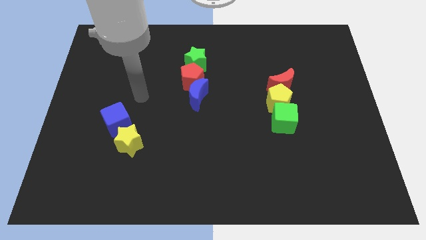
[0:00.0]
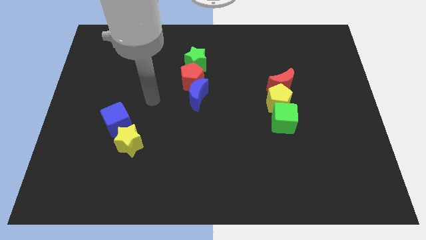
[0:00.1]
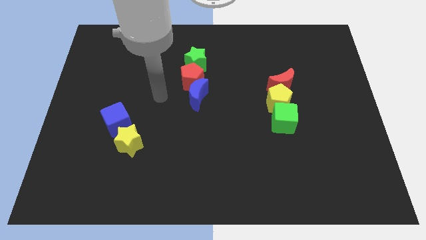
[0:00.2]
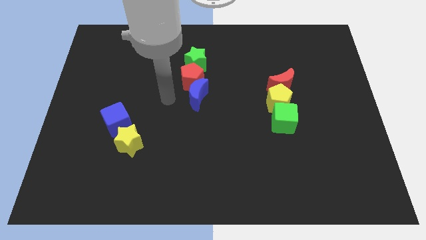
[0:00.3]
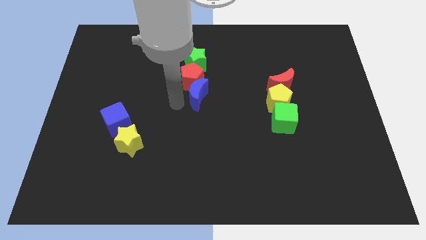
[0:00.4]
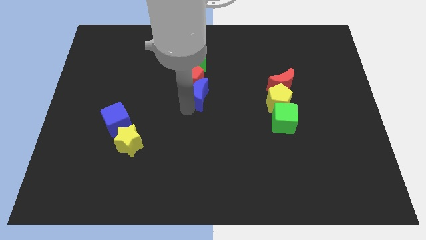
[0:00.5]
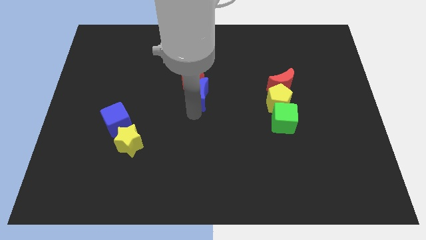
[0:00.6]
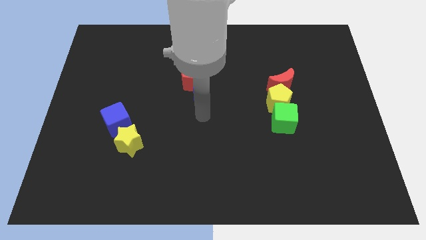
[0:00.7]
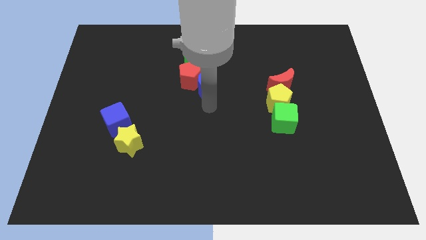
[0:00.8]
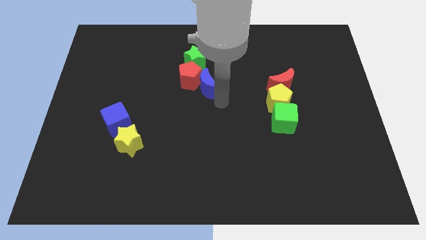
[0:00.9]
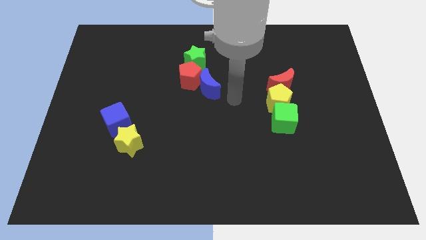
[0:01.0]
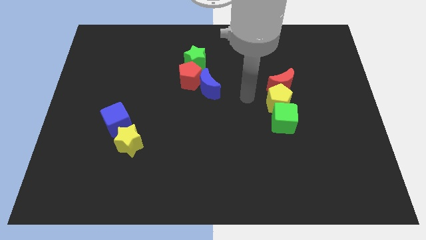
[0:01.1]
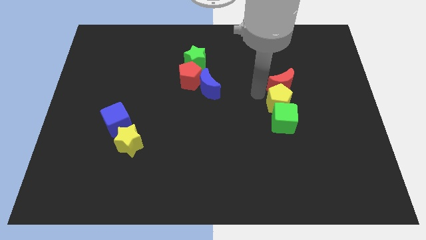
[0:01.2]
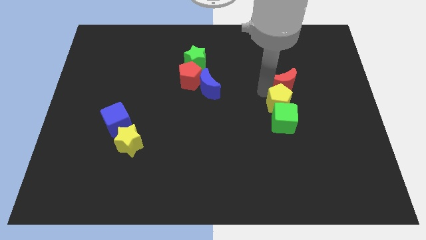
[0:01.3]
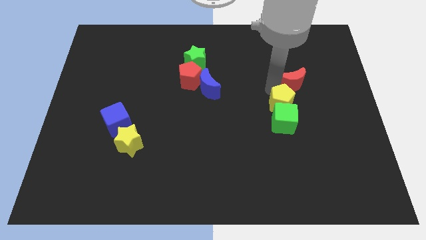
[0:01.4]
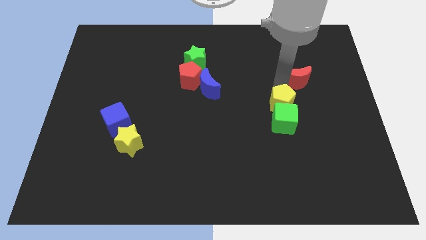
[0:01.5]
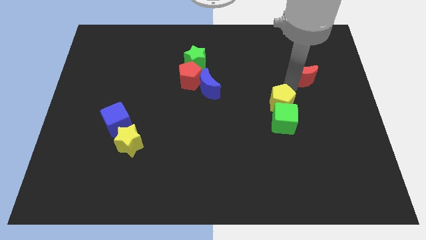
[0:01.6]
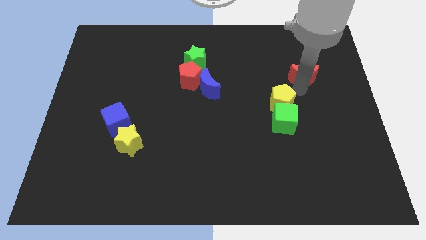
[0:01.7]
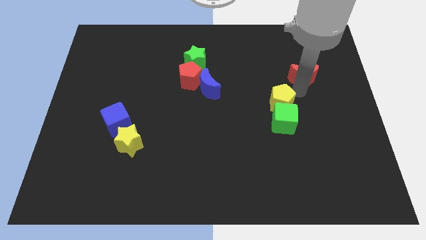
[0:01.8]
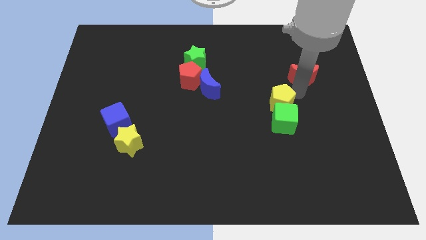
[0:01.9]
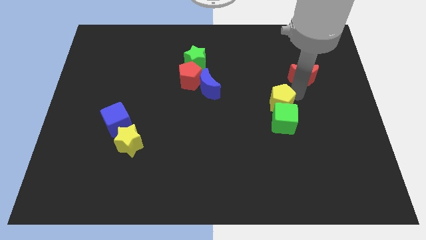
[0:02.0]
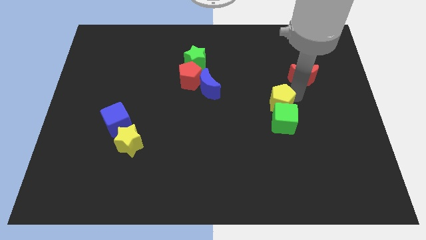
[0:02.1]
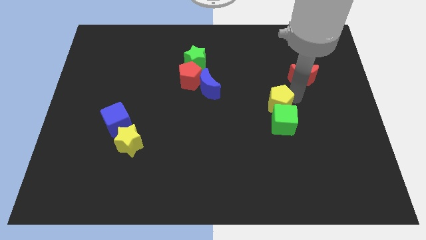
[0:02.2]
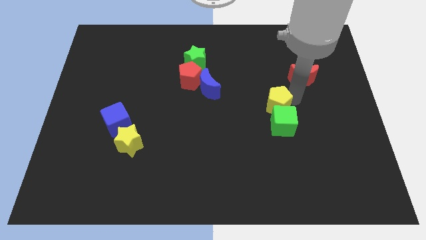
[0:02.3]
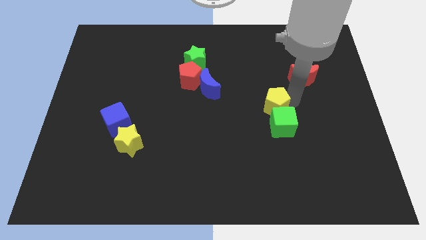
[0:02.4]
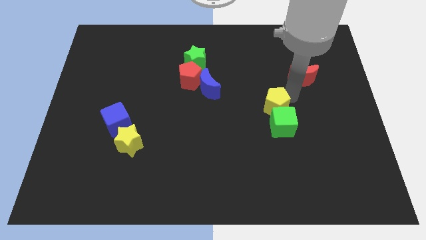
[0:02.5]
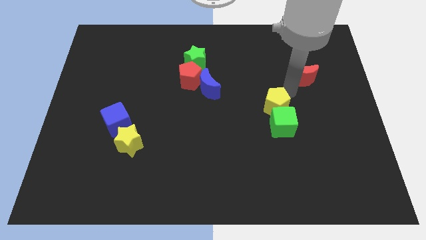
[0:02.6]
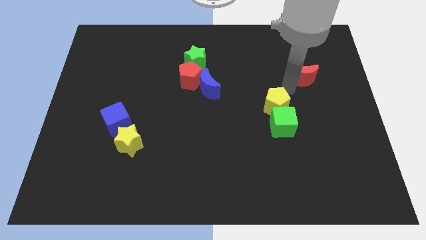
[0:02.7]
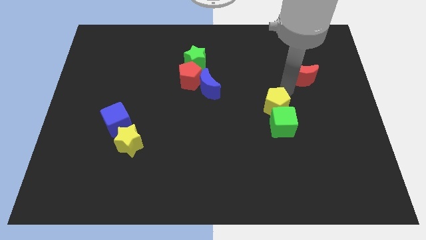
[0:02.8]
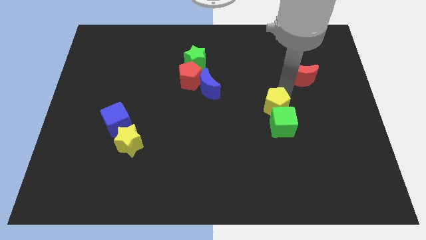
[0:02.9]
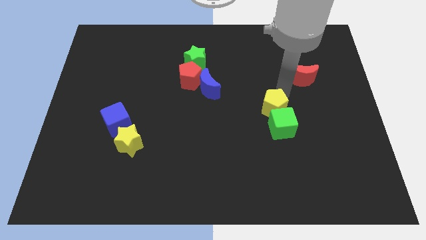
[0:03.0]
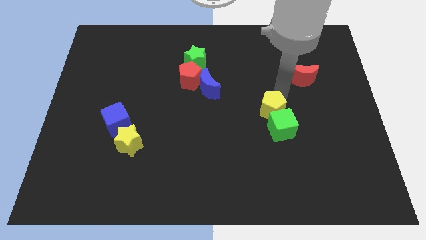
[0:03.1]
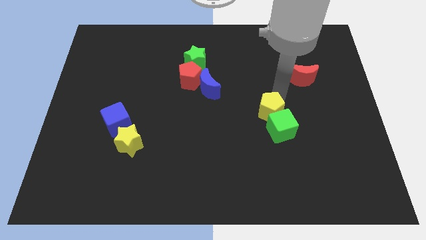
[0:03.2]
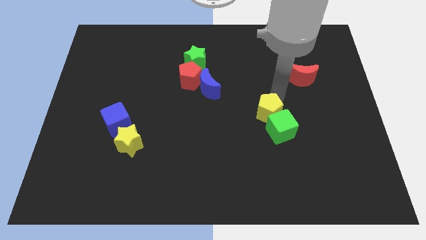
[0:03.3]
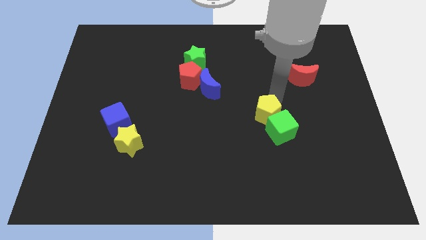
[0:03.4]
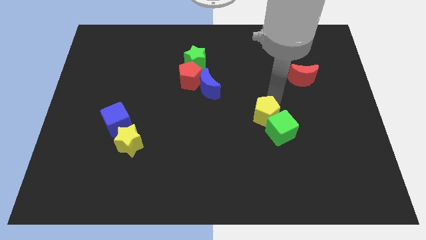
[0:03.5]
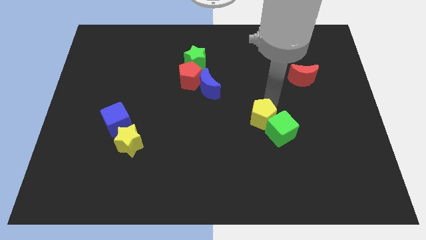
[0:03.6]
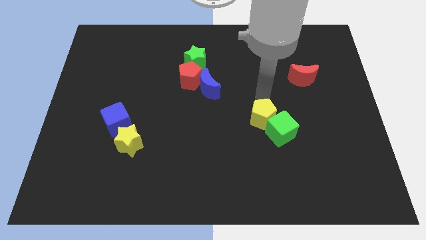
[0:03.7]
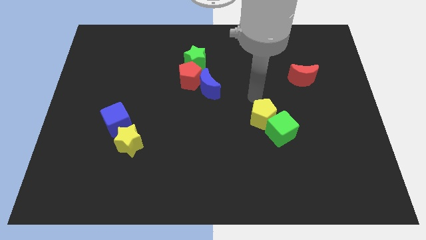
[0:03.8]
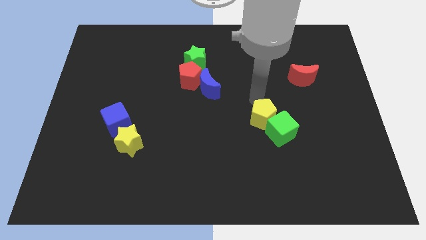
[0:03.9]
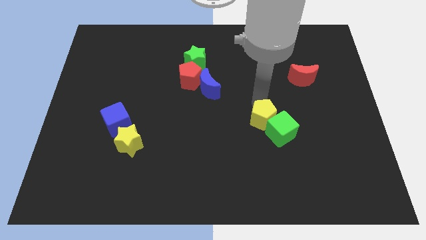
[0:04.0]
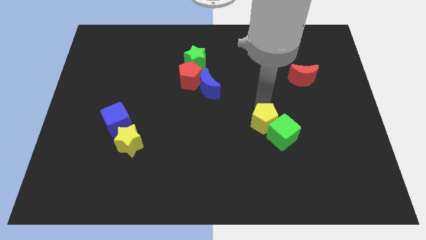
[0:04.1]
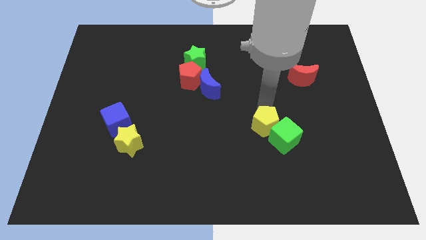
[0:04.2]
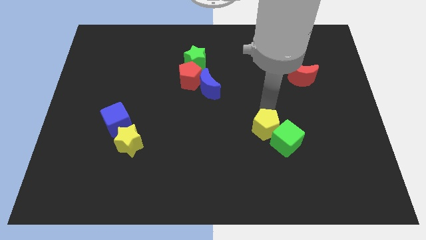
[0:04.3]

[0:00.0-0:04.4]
slightly push the yellow pentagon down

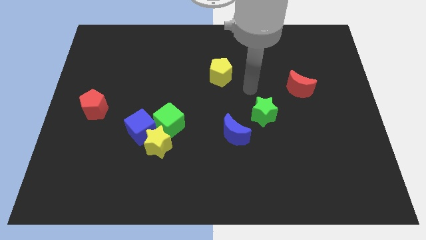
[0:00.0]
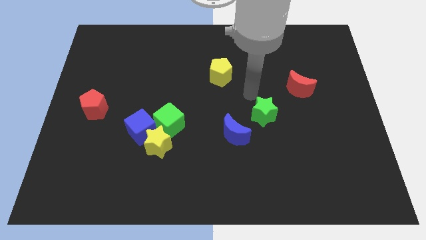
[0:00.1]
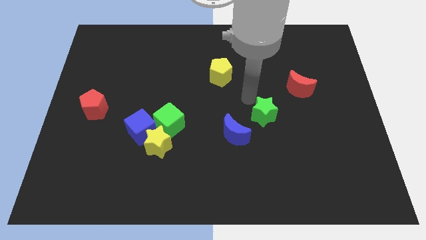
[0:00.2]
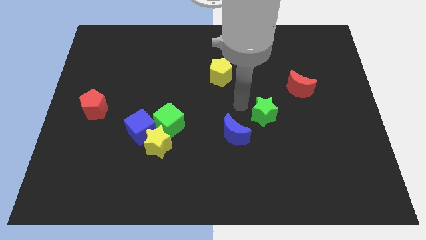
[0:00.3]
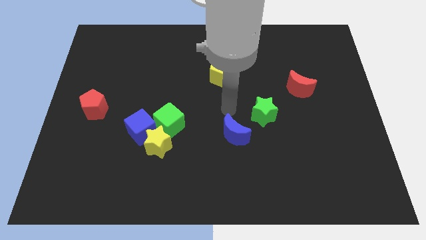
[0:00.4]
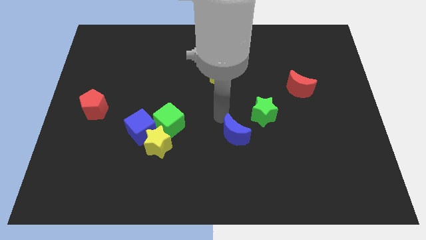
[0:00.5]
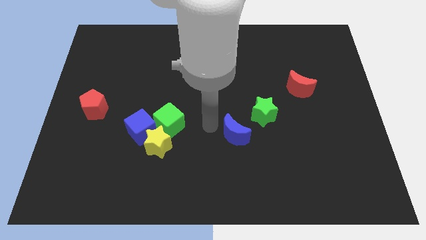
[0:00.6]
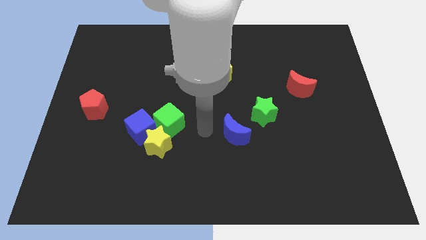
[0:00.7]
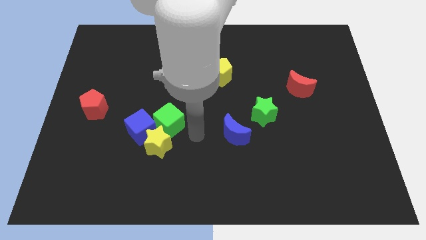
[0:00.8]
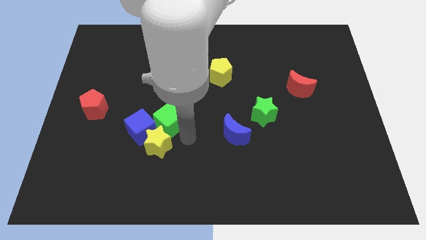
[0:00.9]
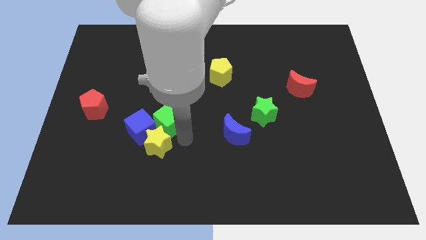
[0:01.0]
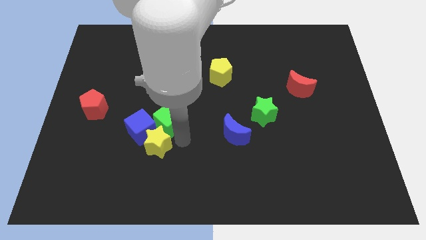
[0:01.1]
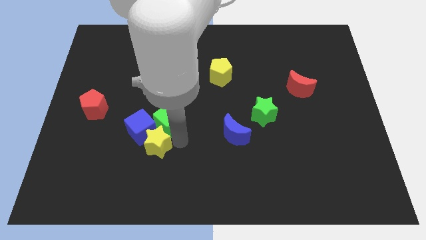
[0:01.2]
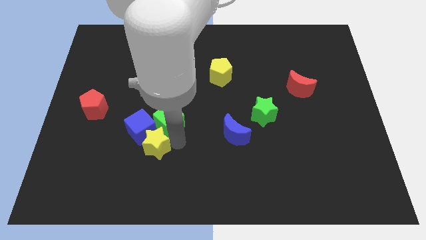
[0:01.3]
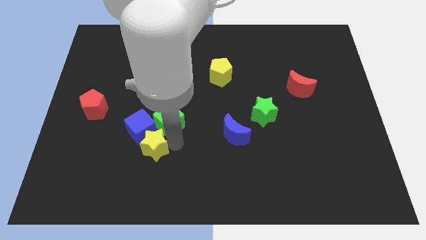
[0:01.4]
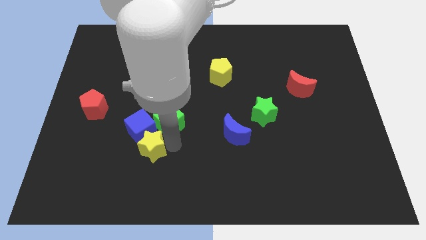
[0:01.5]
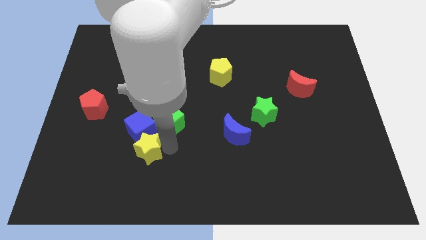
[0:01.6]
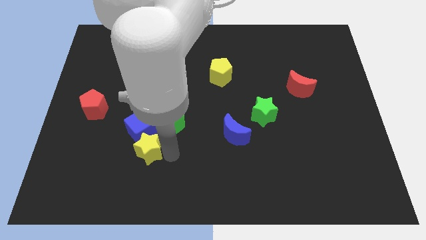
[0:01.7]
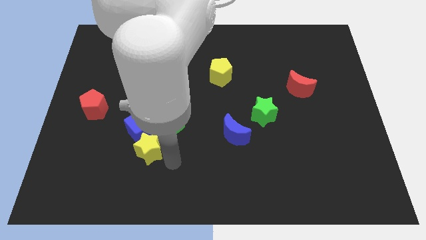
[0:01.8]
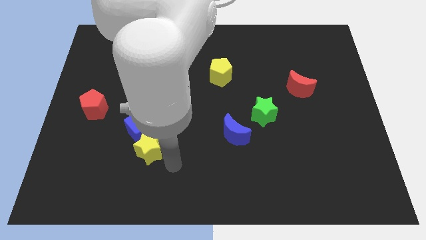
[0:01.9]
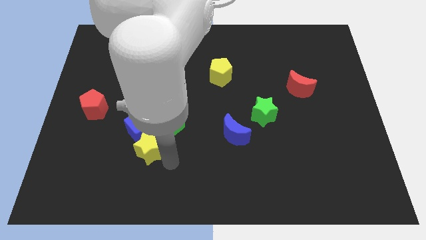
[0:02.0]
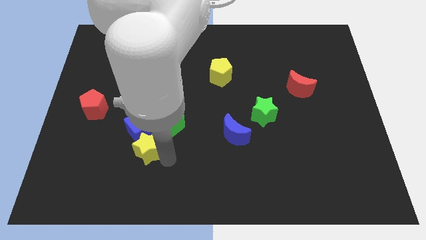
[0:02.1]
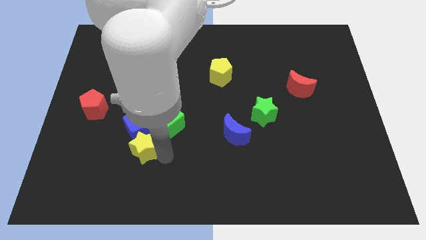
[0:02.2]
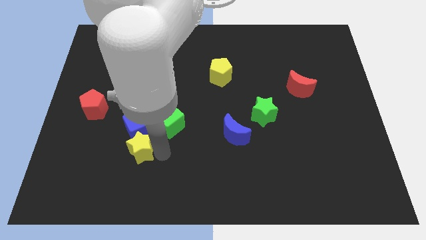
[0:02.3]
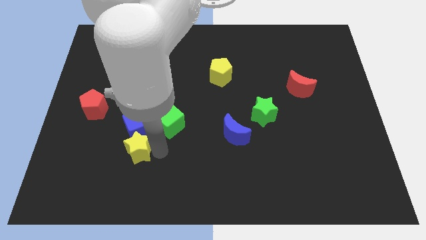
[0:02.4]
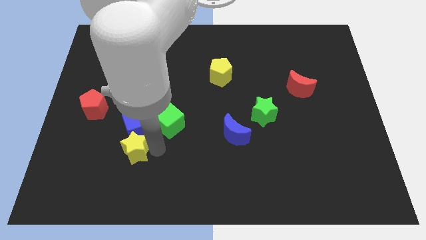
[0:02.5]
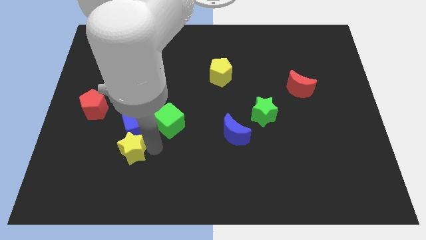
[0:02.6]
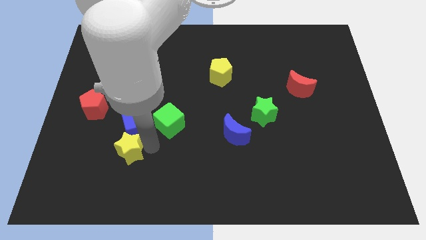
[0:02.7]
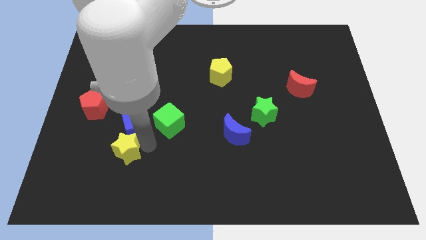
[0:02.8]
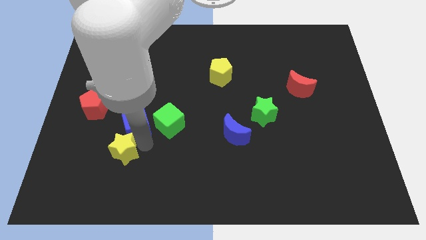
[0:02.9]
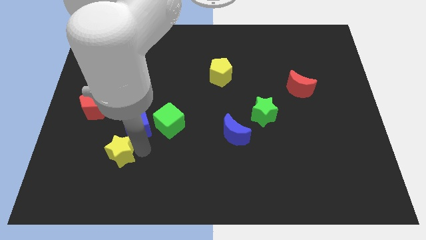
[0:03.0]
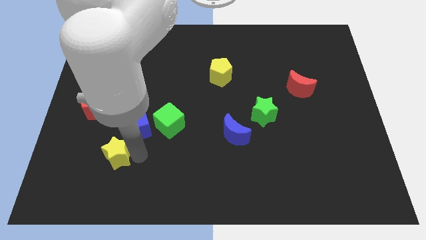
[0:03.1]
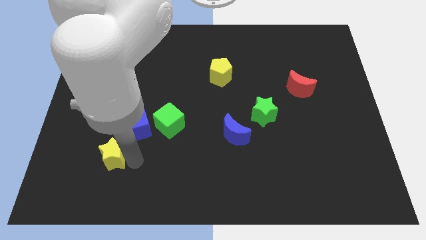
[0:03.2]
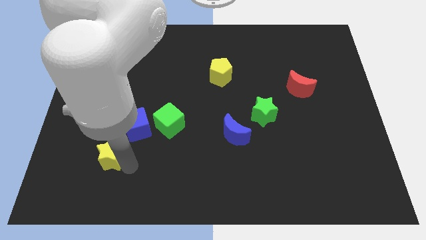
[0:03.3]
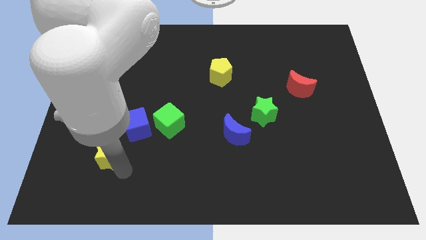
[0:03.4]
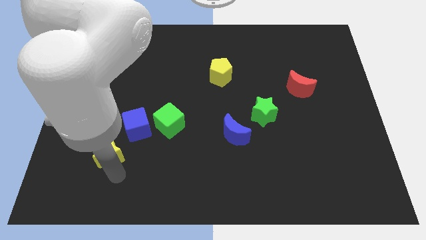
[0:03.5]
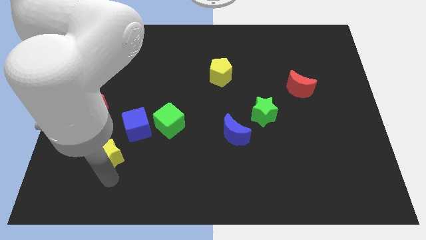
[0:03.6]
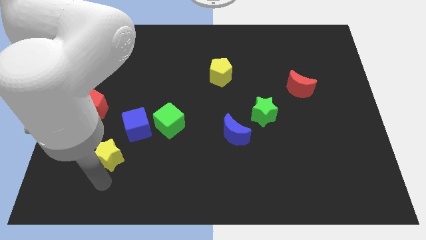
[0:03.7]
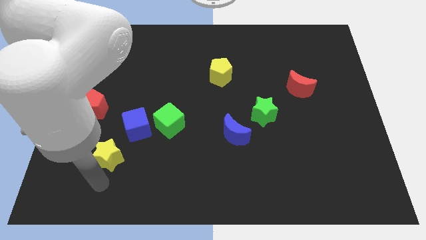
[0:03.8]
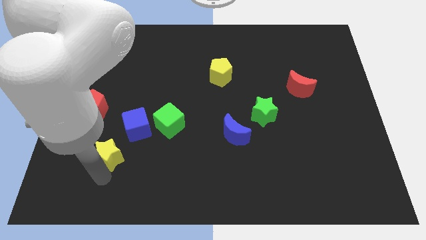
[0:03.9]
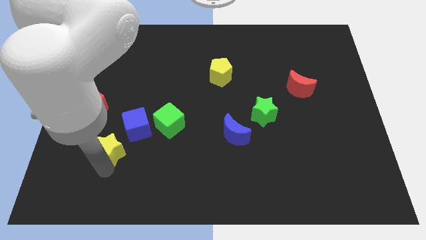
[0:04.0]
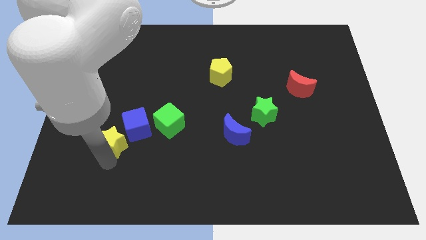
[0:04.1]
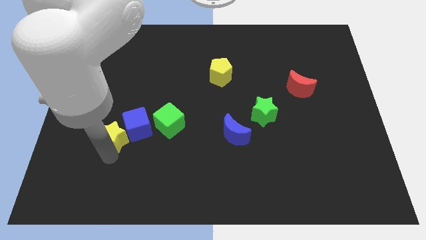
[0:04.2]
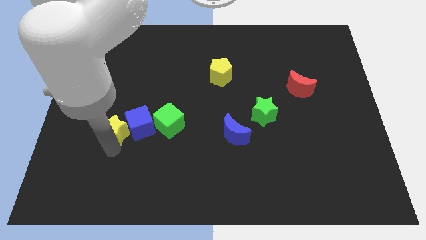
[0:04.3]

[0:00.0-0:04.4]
slide the yellow star up and to the left a little bit
